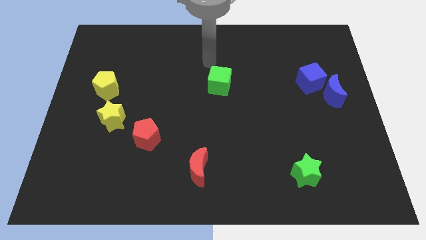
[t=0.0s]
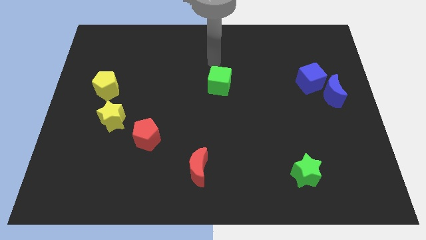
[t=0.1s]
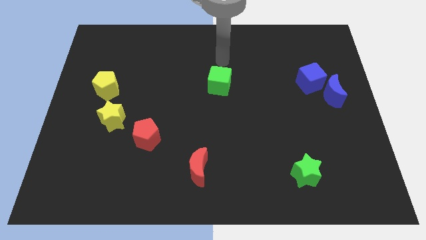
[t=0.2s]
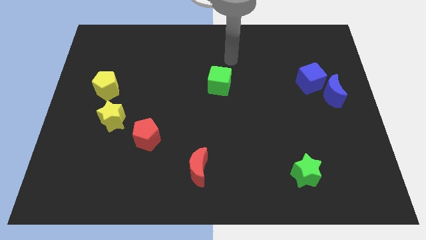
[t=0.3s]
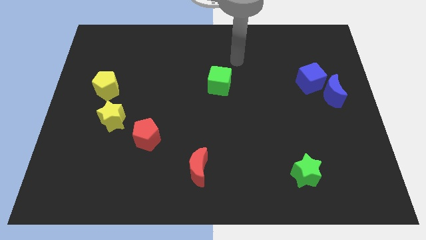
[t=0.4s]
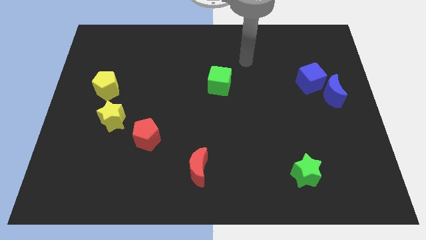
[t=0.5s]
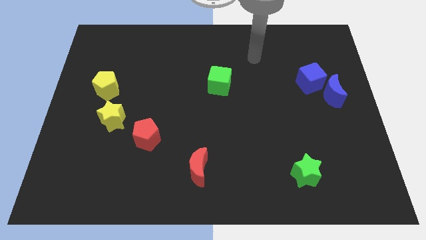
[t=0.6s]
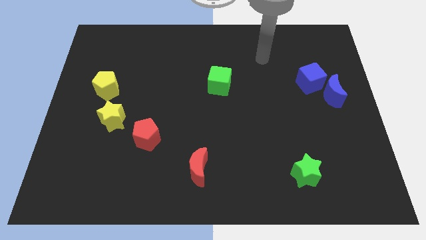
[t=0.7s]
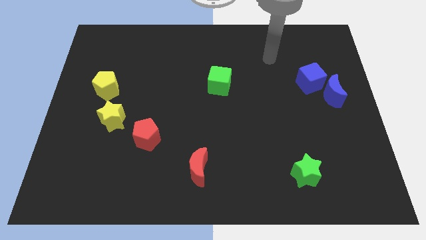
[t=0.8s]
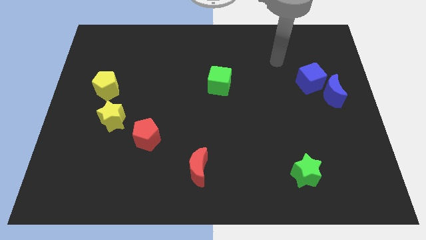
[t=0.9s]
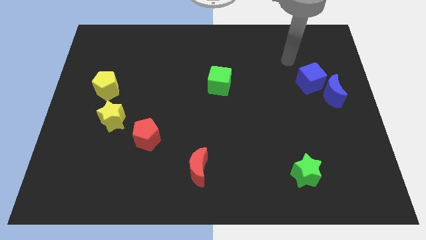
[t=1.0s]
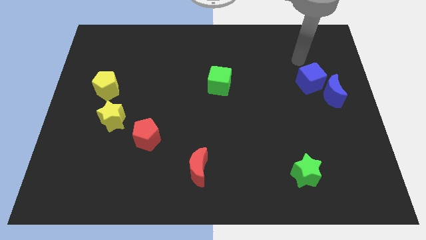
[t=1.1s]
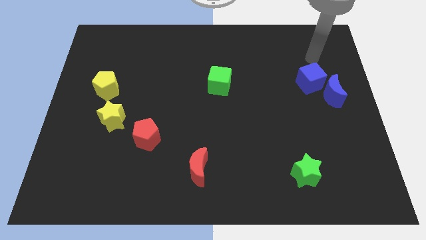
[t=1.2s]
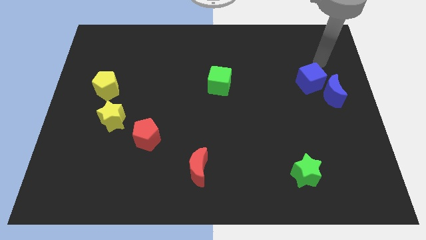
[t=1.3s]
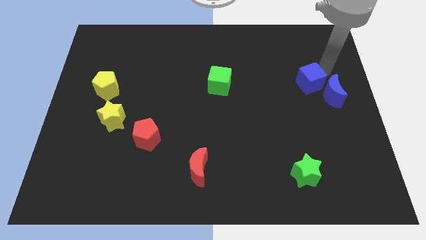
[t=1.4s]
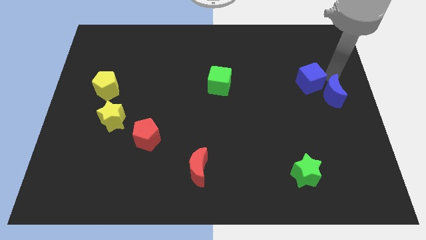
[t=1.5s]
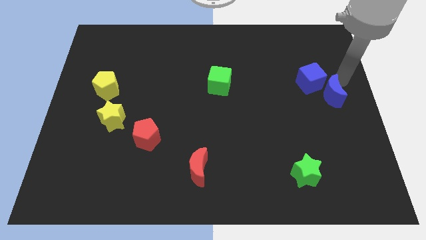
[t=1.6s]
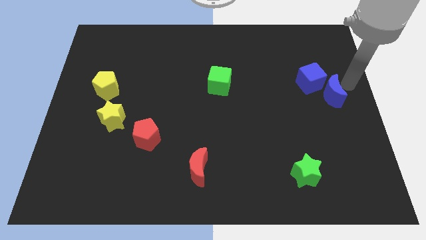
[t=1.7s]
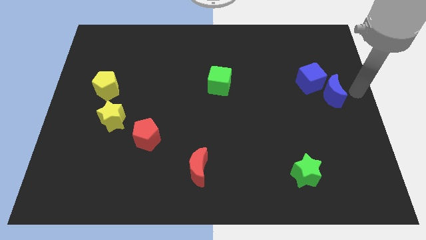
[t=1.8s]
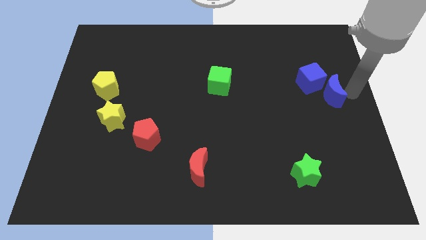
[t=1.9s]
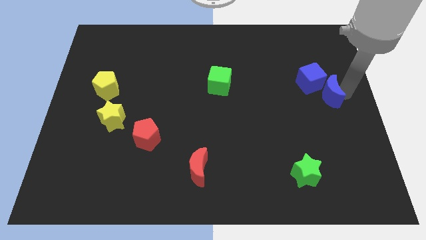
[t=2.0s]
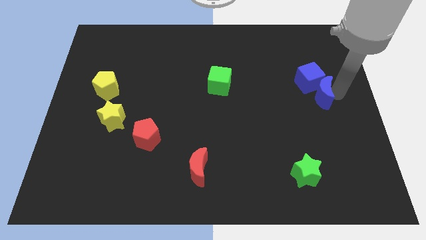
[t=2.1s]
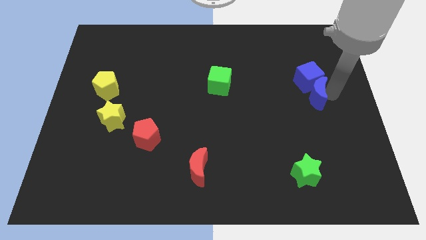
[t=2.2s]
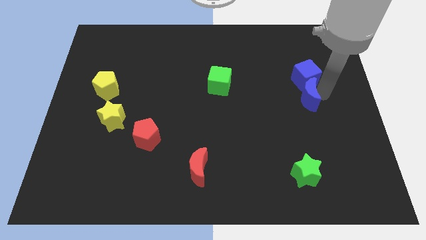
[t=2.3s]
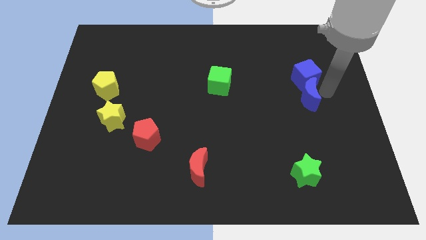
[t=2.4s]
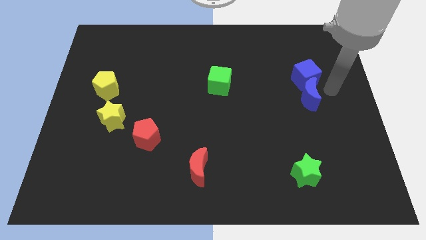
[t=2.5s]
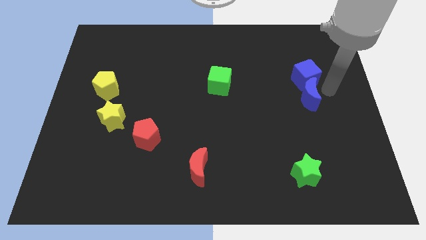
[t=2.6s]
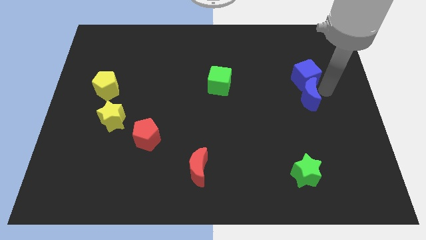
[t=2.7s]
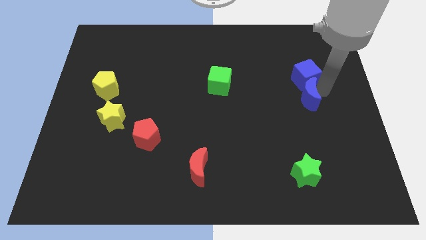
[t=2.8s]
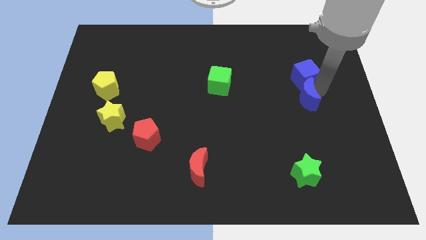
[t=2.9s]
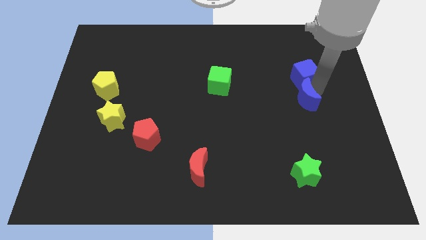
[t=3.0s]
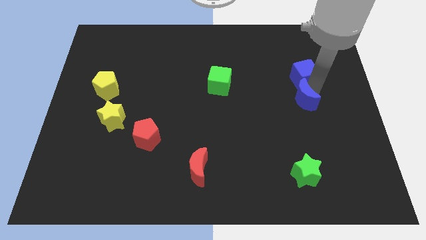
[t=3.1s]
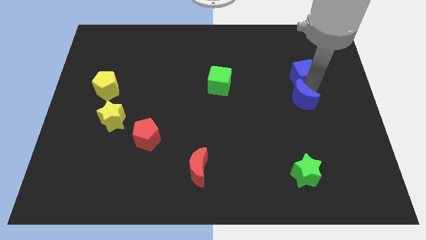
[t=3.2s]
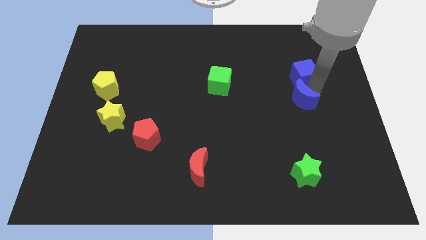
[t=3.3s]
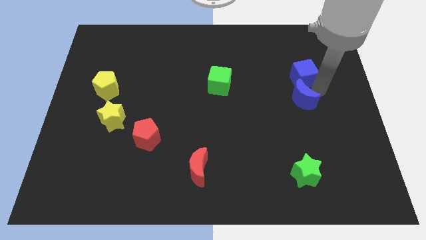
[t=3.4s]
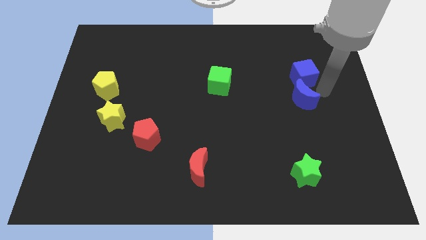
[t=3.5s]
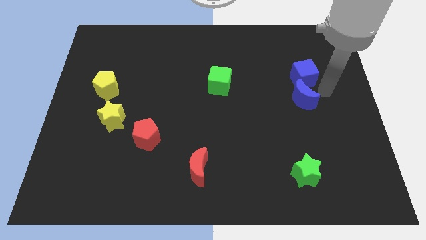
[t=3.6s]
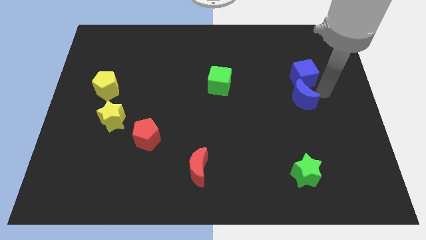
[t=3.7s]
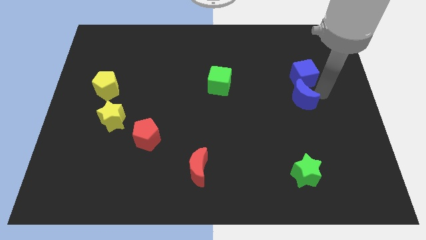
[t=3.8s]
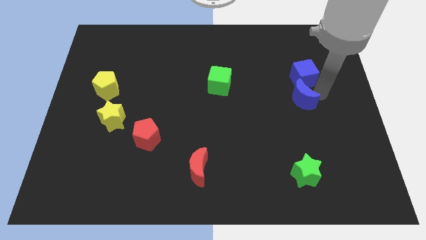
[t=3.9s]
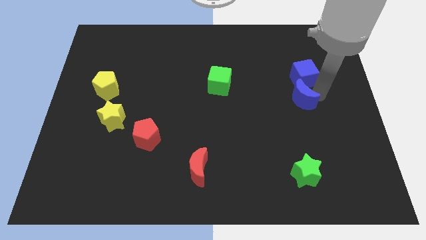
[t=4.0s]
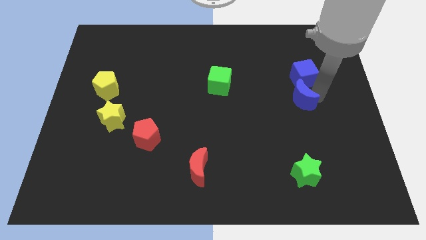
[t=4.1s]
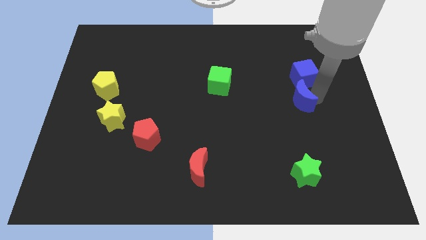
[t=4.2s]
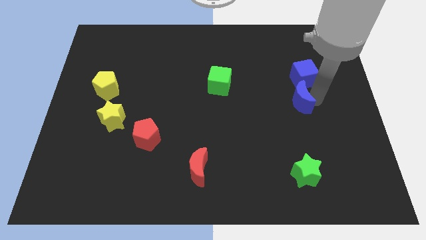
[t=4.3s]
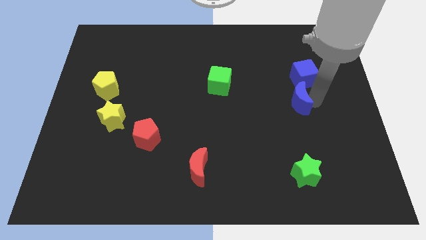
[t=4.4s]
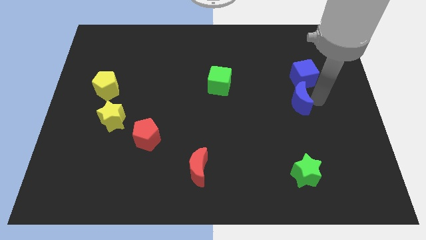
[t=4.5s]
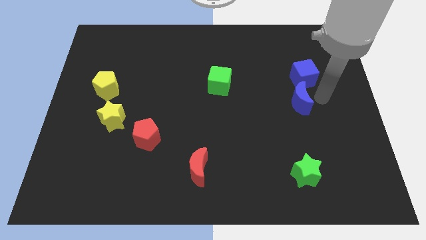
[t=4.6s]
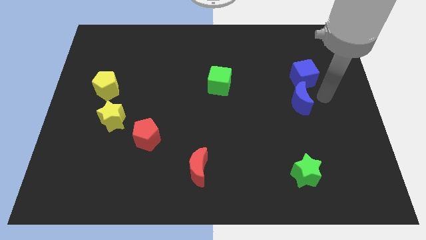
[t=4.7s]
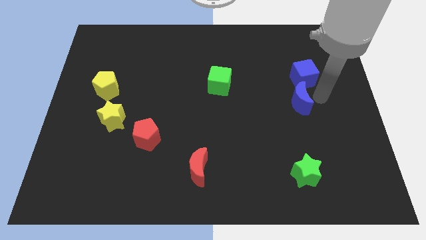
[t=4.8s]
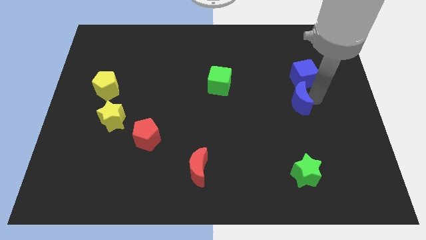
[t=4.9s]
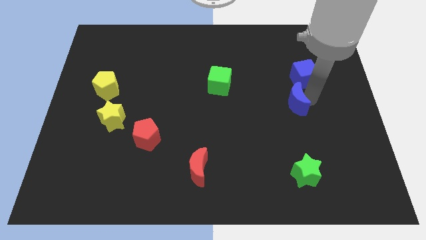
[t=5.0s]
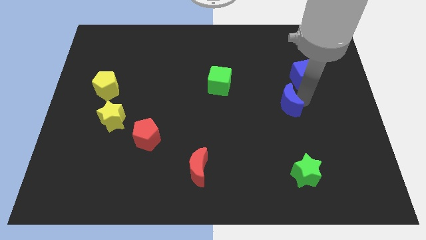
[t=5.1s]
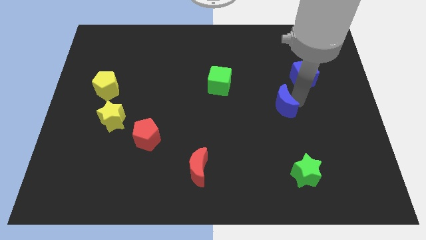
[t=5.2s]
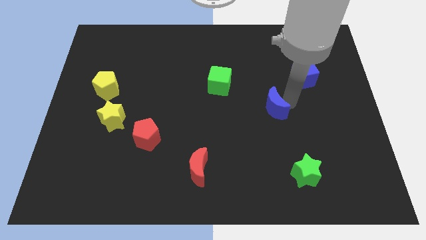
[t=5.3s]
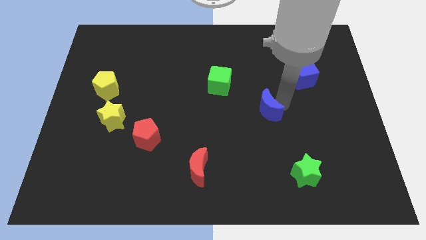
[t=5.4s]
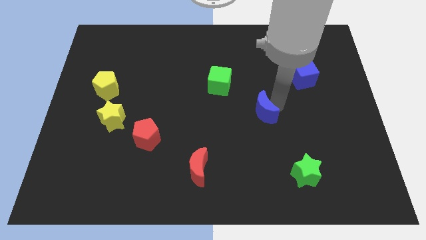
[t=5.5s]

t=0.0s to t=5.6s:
move the blue moon to the middle
